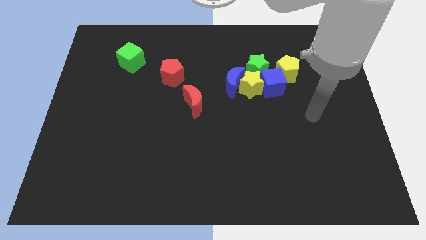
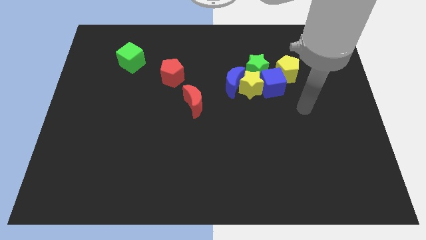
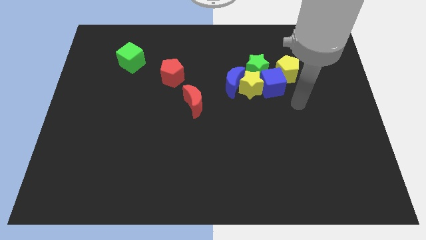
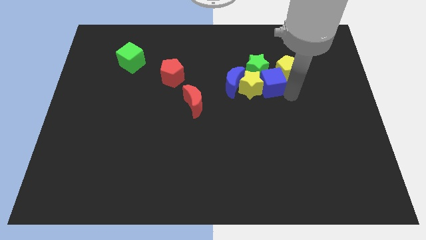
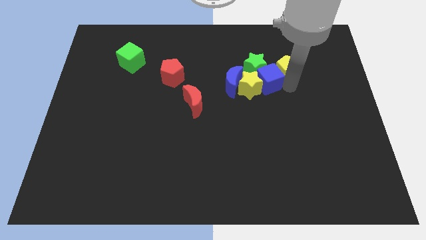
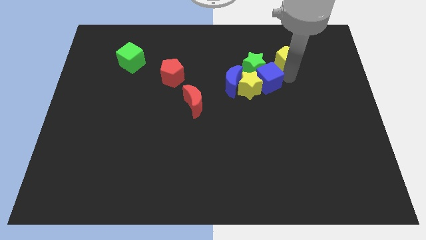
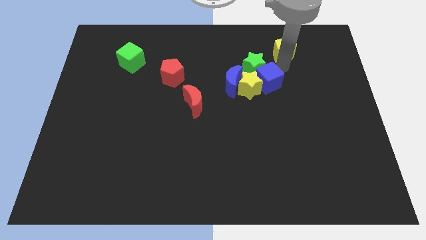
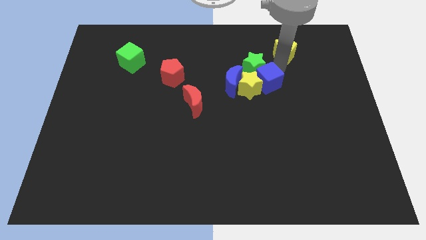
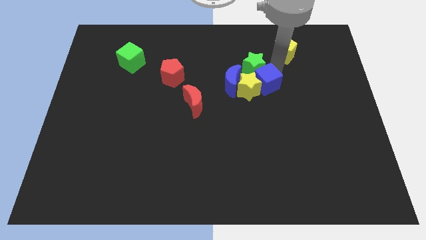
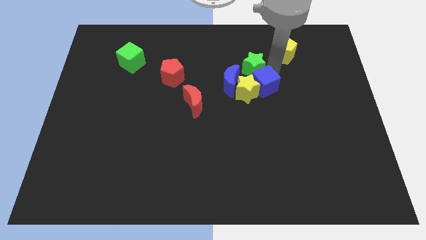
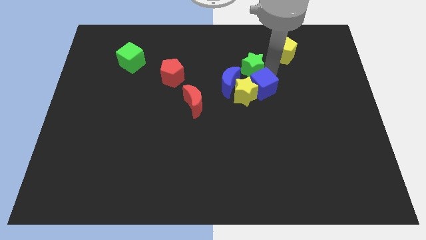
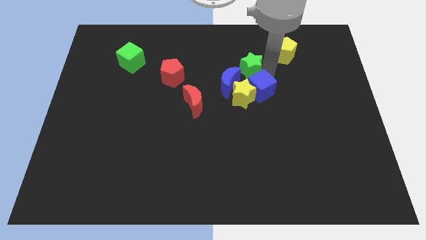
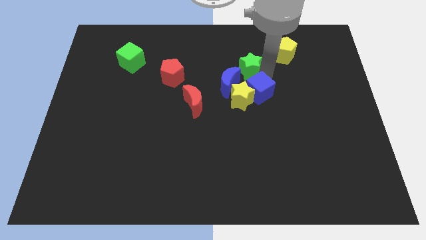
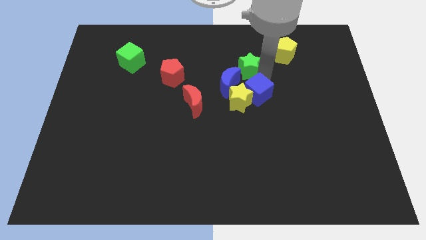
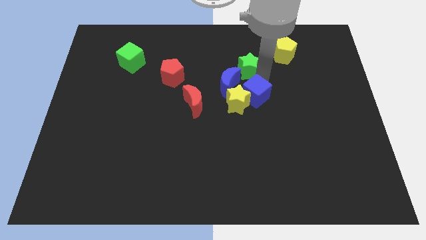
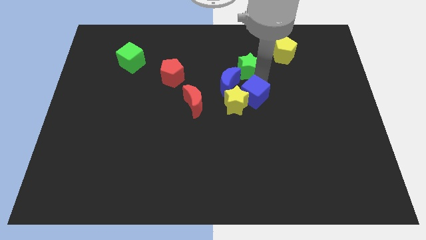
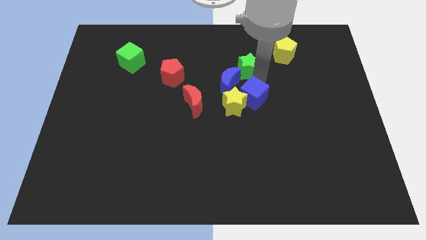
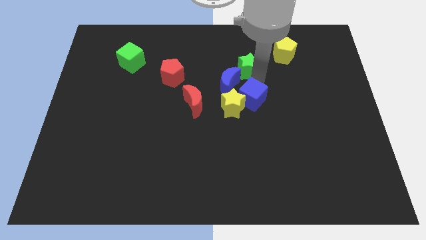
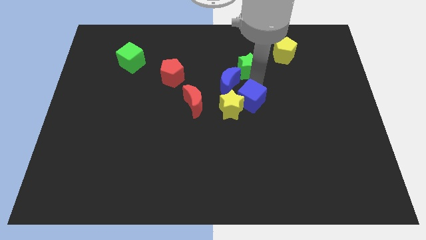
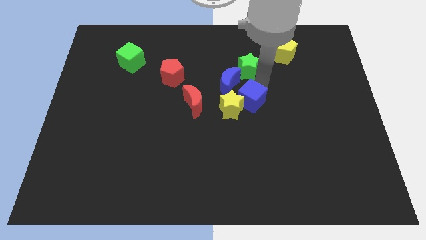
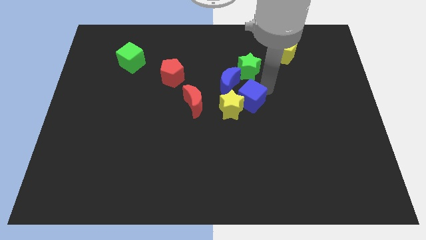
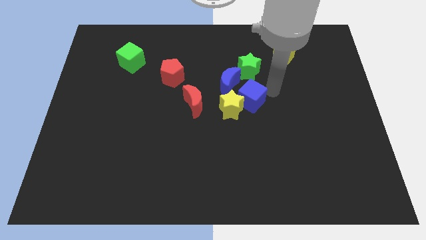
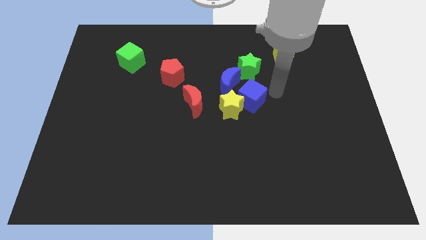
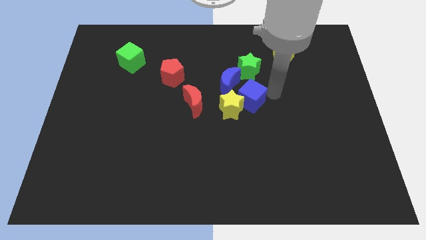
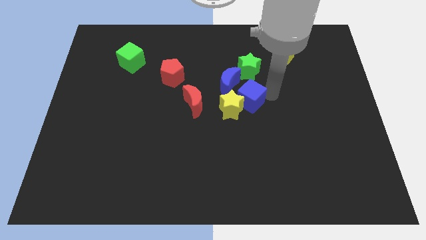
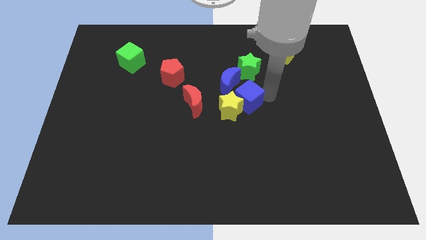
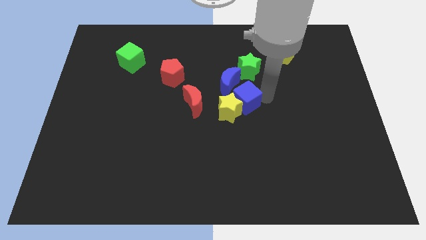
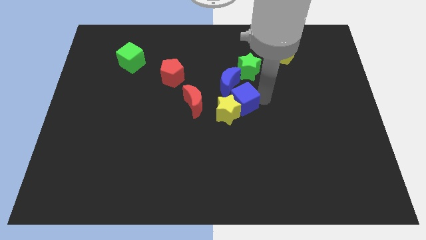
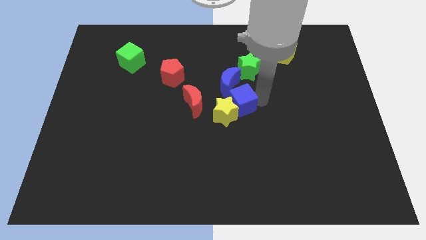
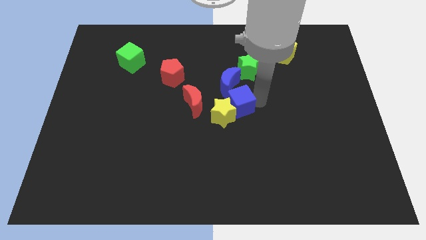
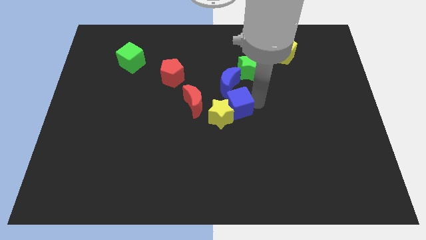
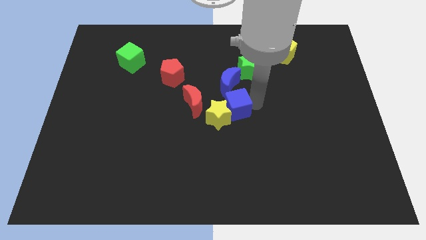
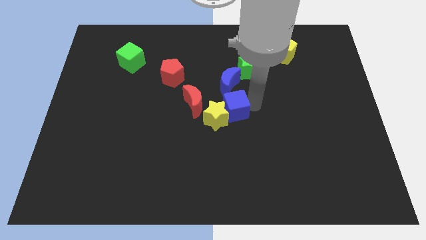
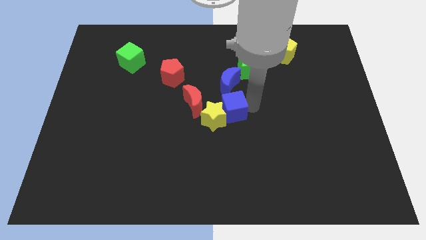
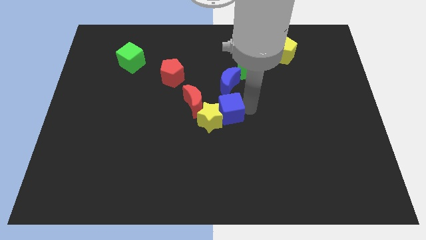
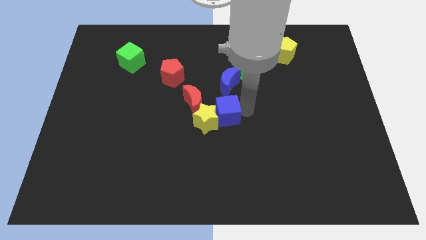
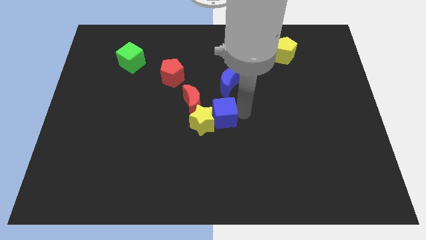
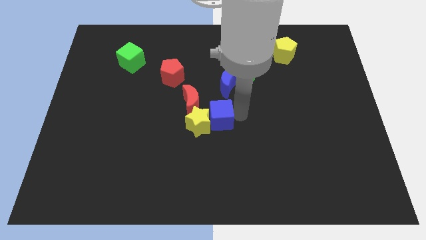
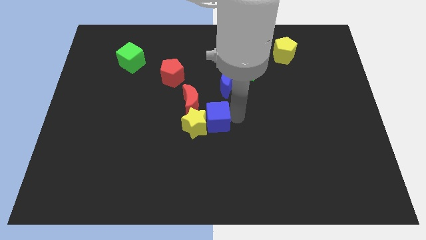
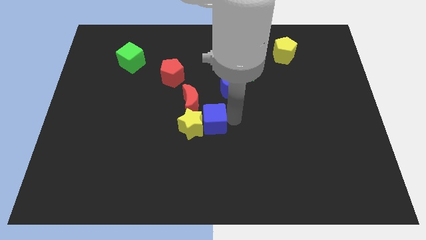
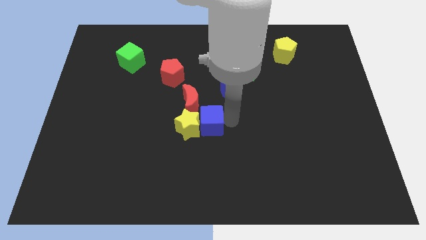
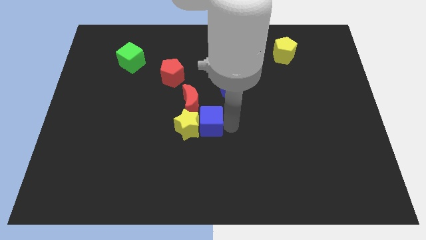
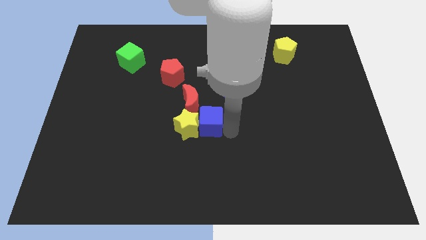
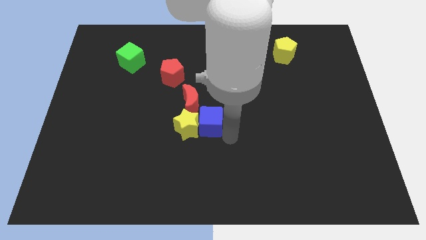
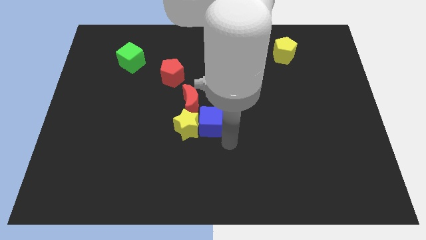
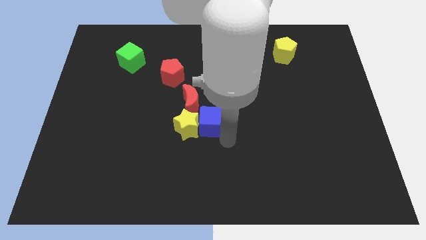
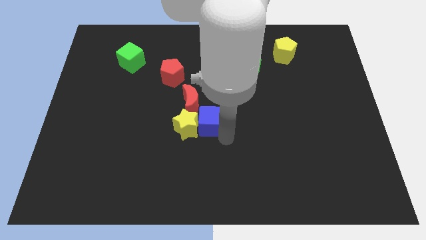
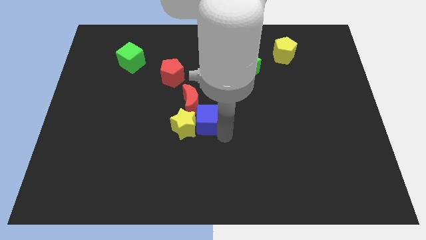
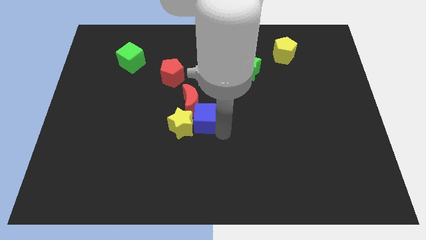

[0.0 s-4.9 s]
put the blue cube towards the red moon

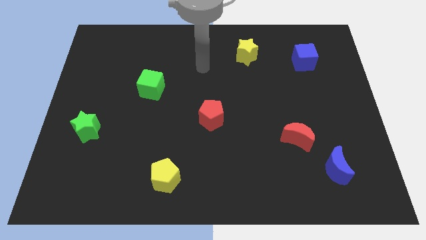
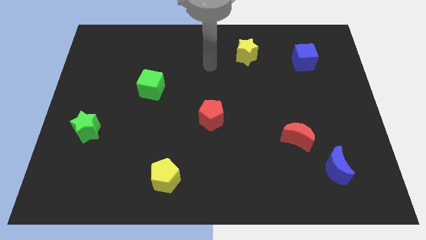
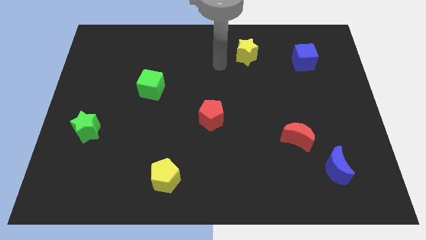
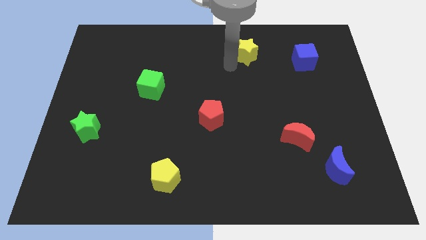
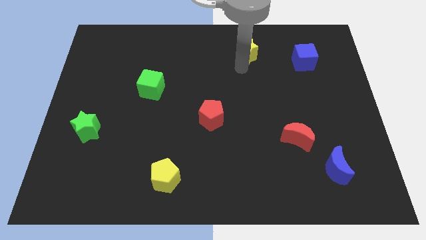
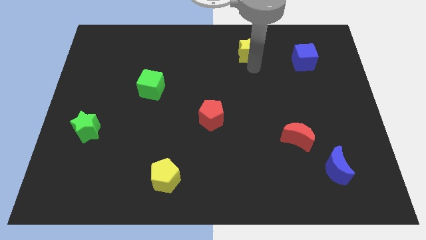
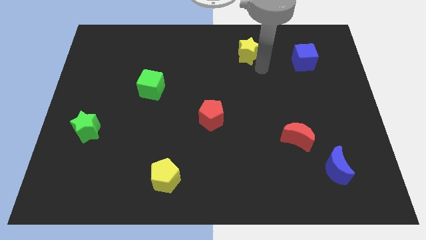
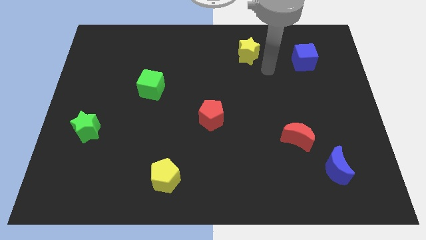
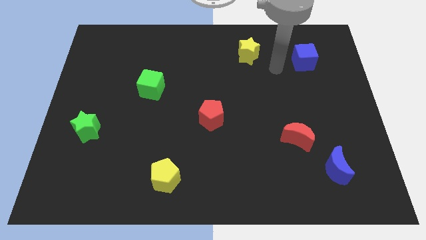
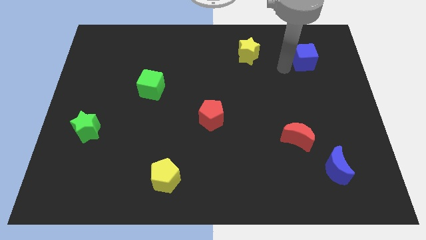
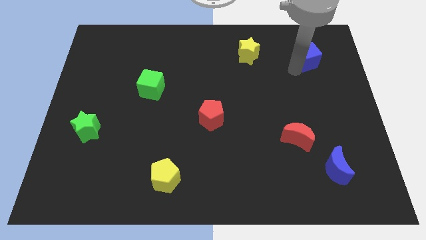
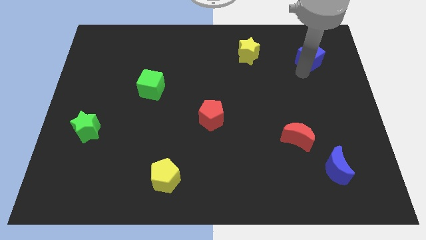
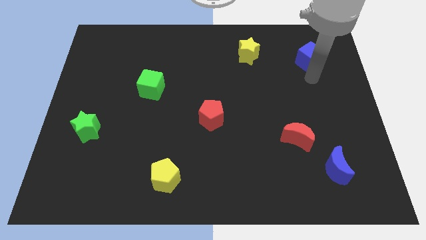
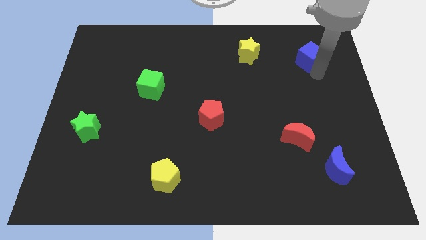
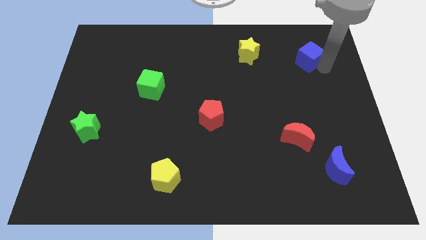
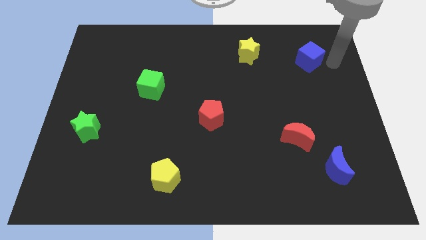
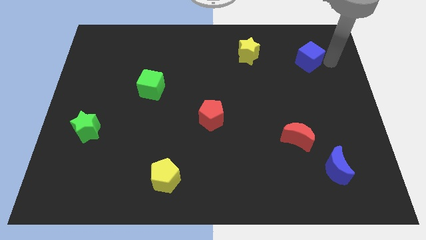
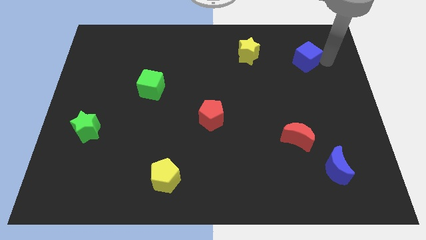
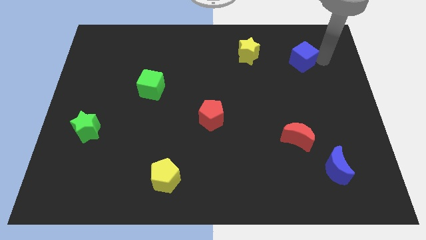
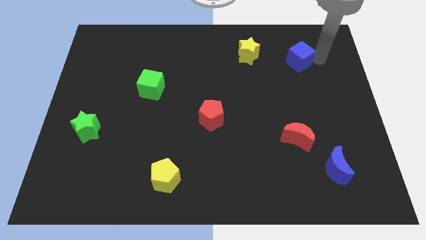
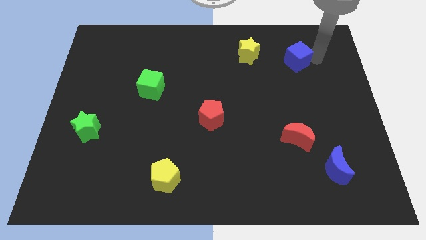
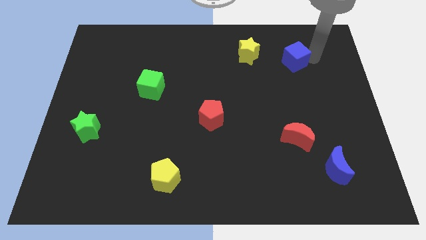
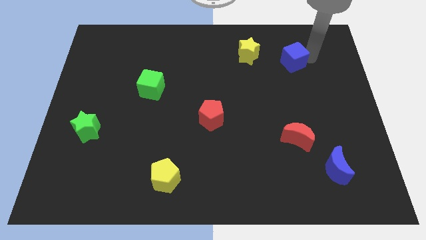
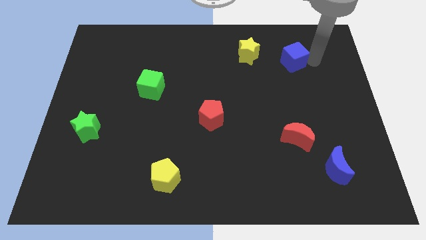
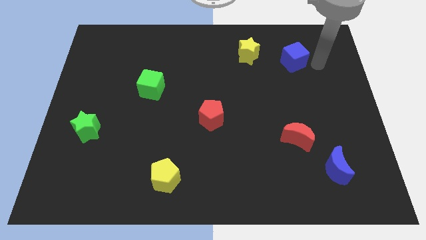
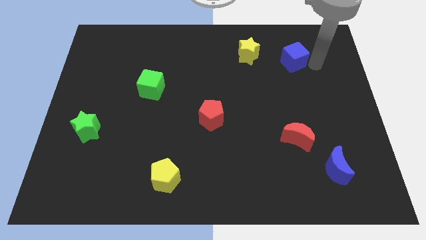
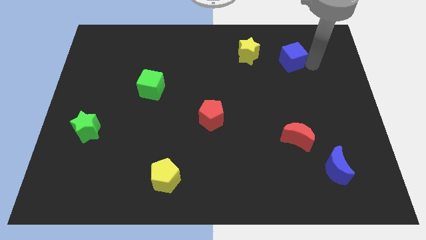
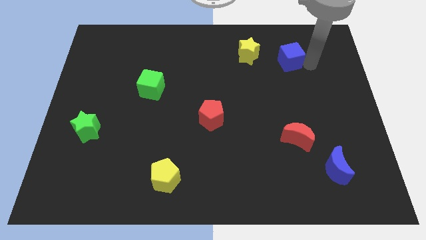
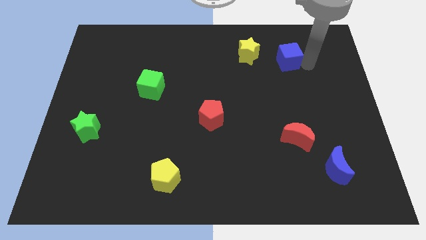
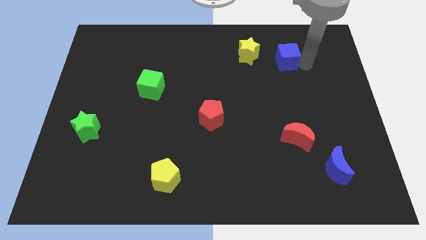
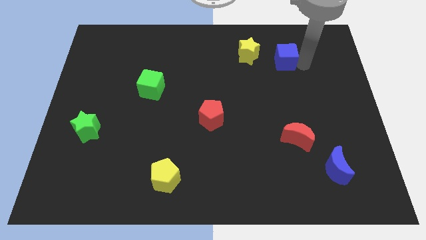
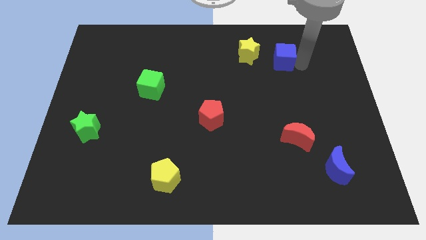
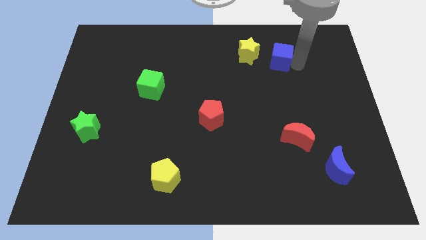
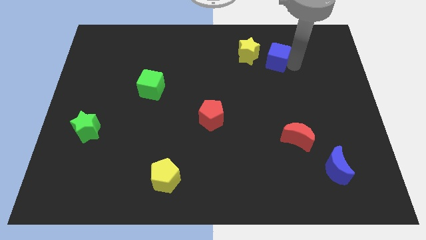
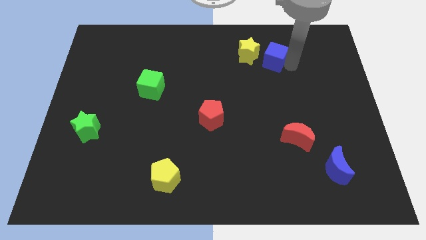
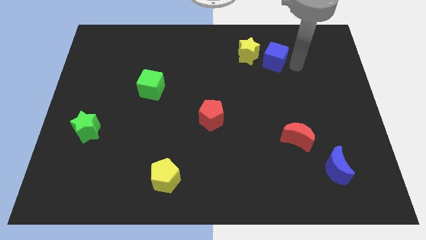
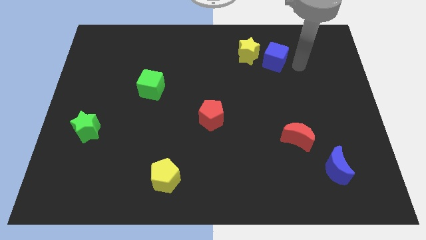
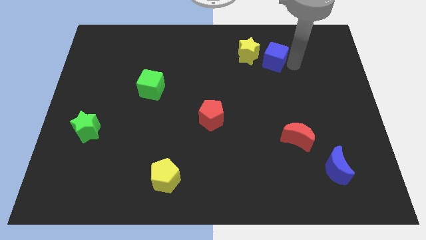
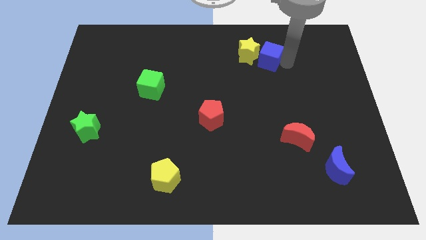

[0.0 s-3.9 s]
slide the blue cube towards the yellow star
